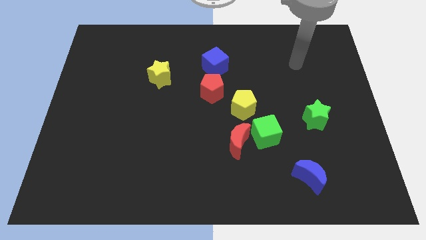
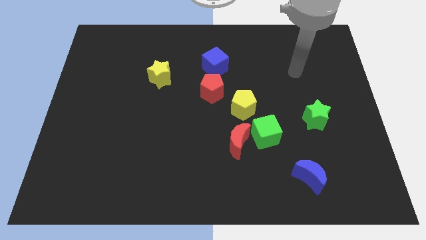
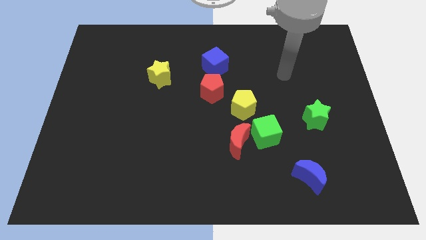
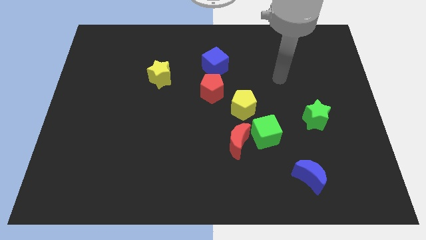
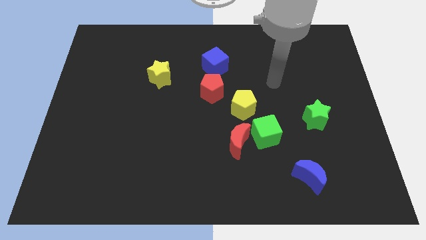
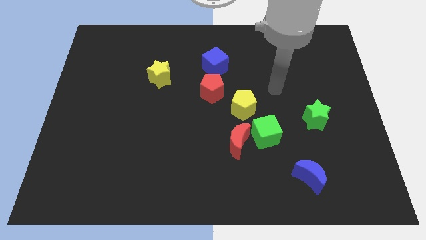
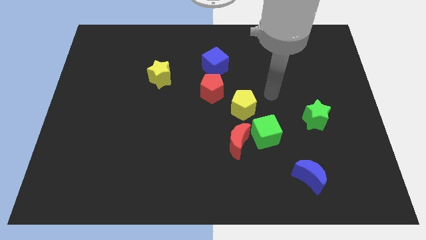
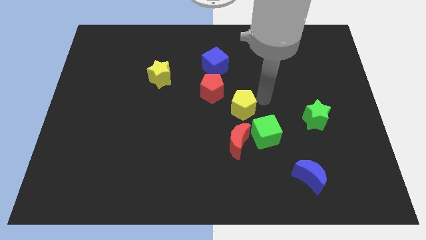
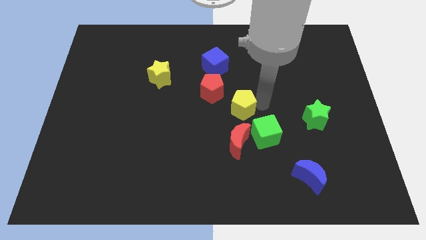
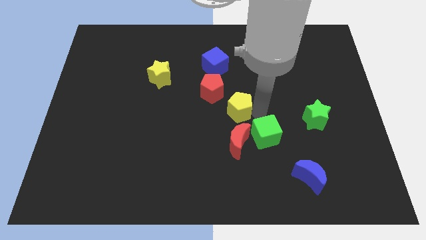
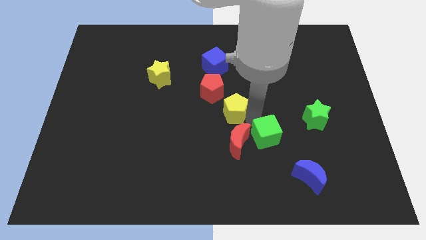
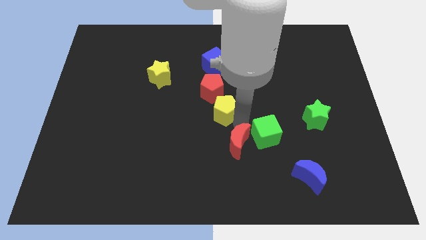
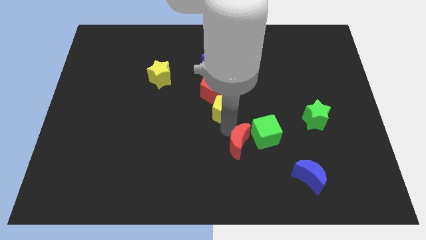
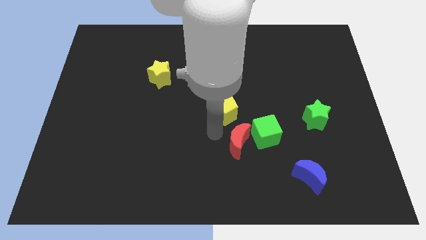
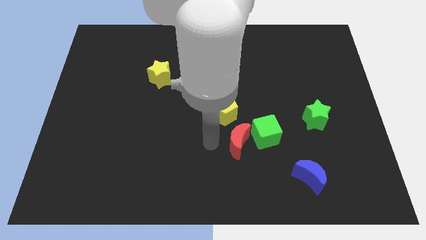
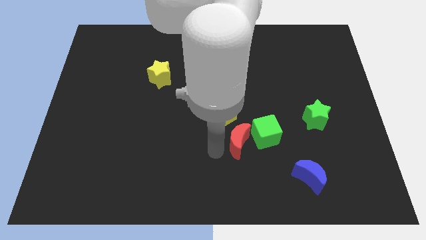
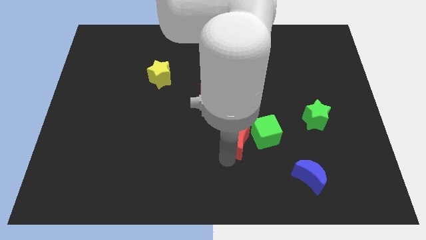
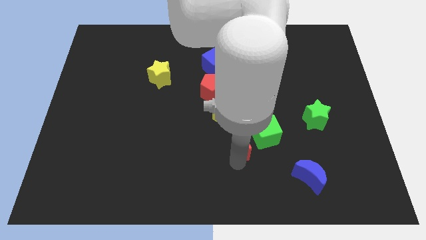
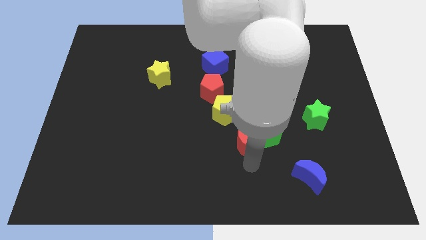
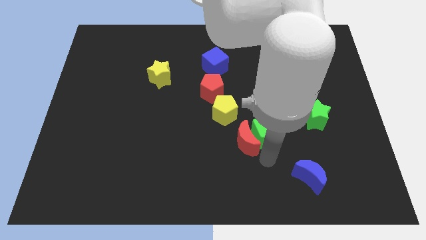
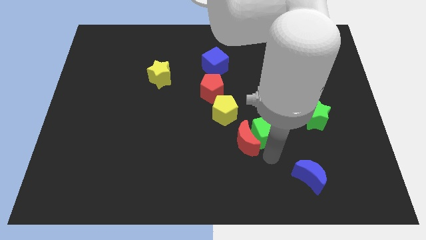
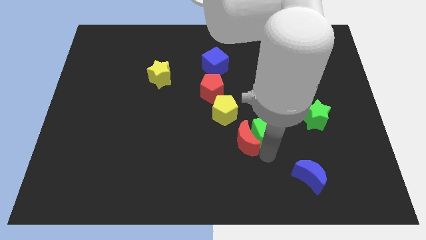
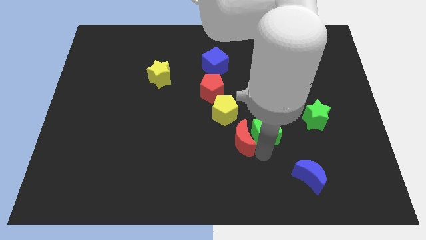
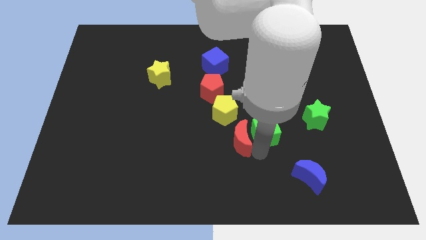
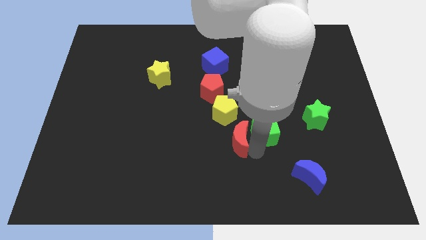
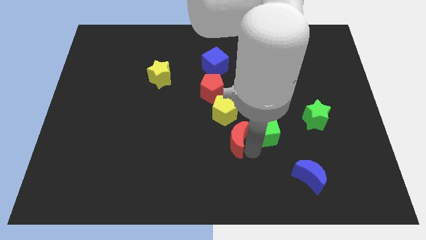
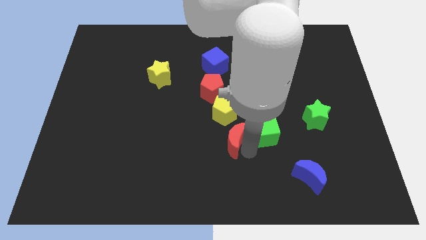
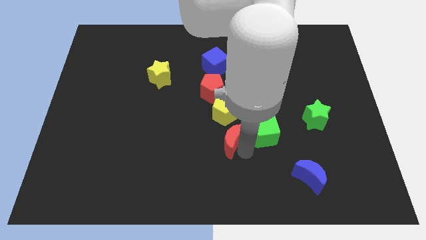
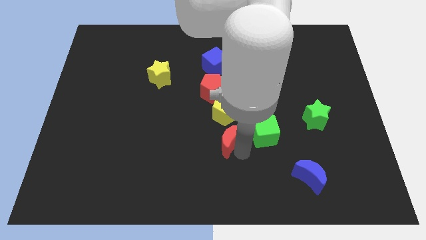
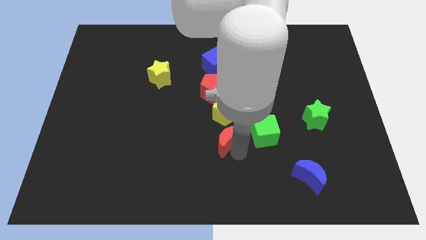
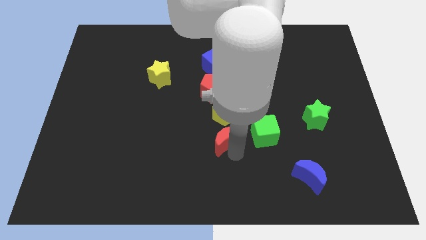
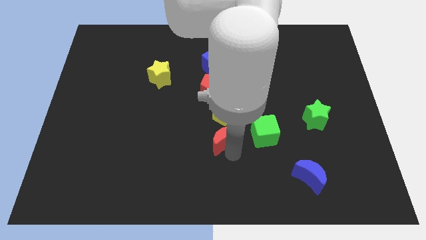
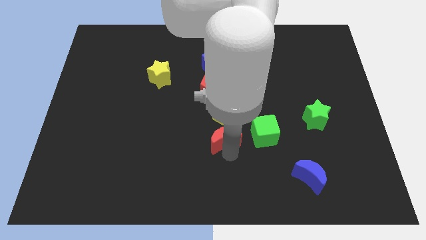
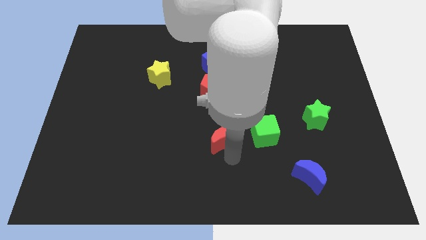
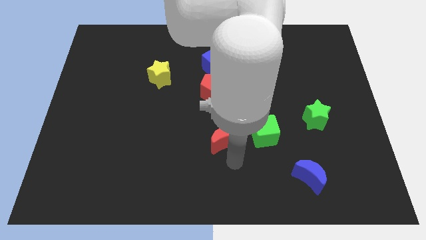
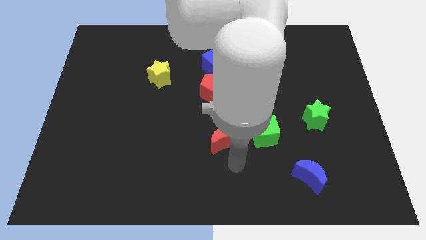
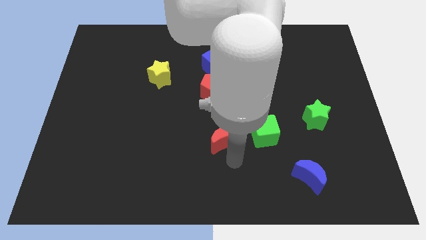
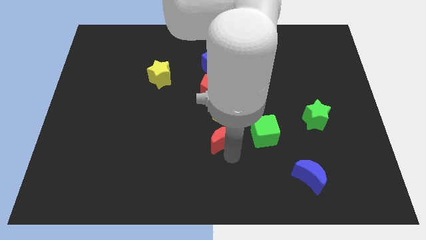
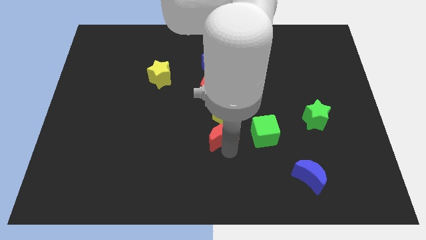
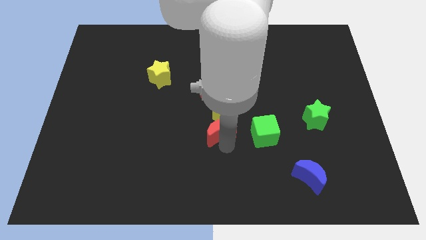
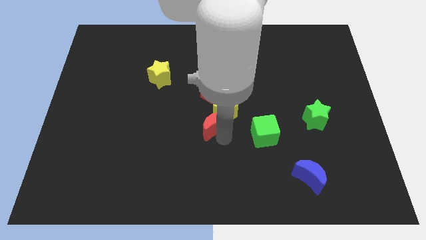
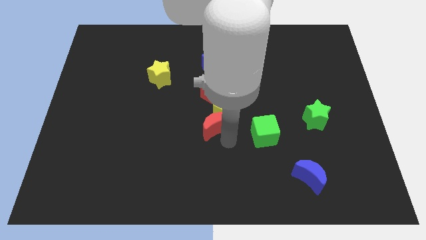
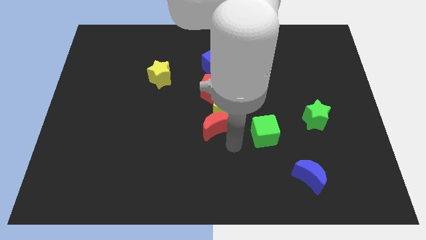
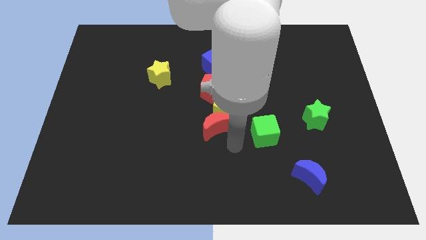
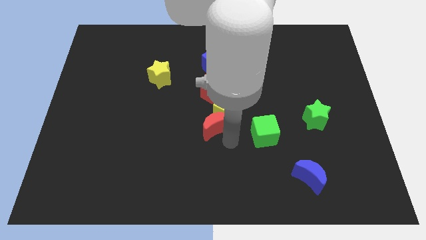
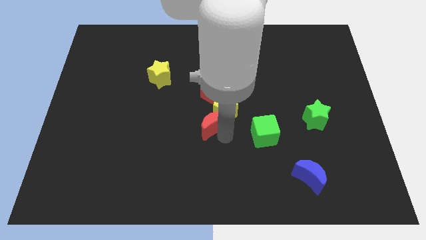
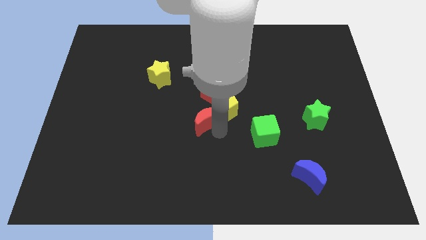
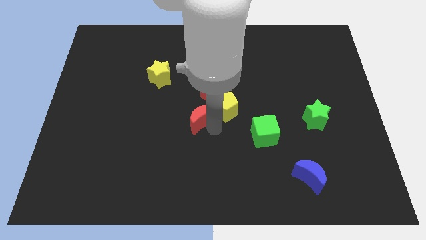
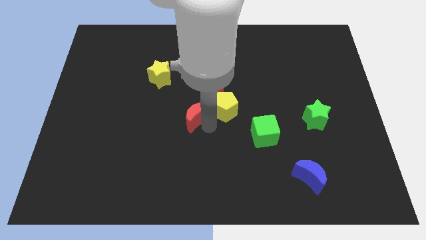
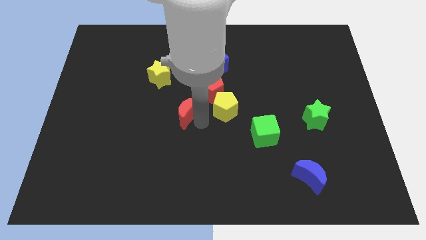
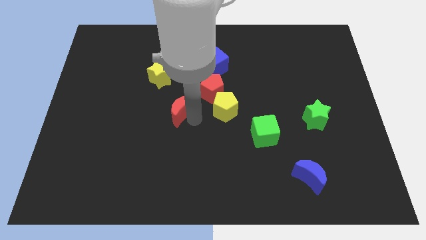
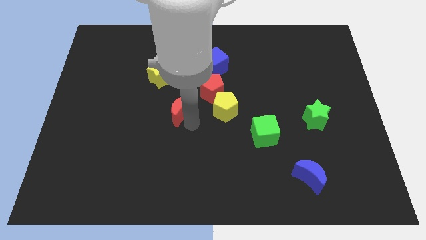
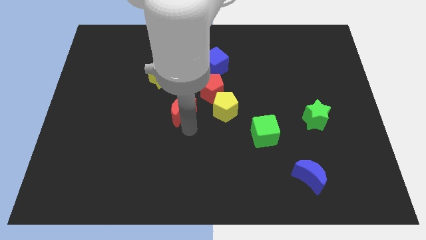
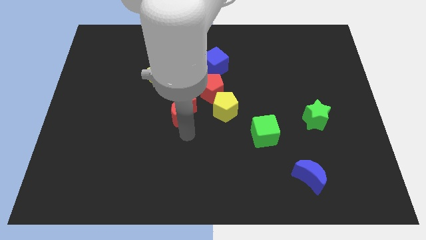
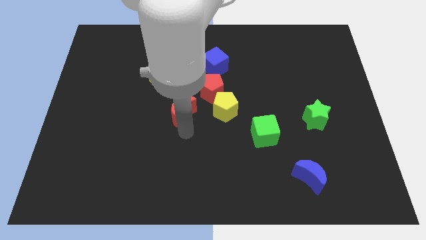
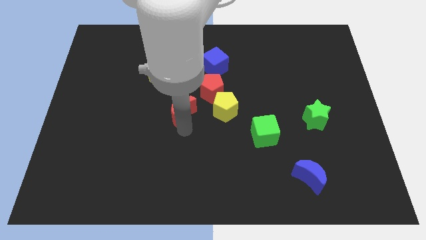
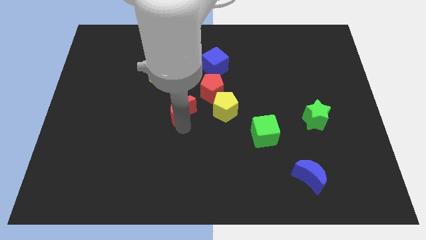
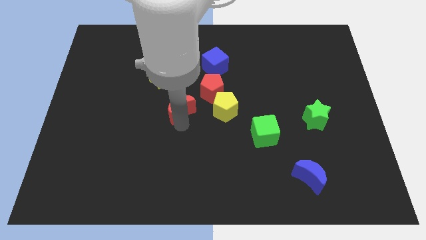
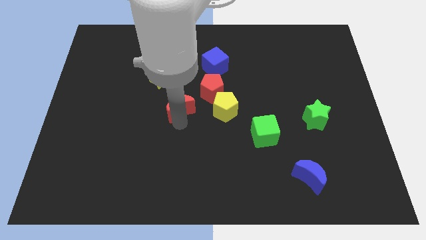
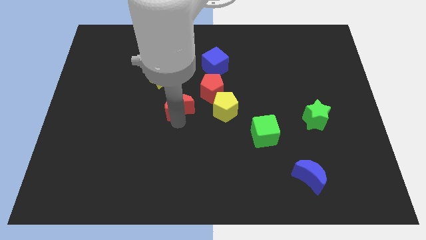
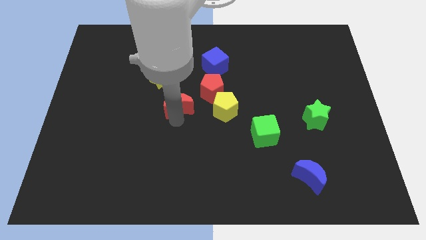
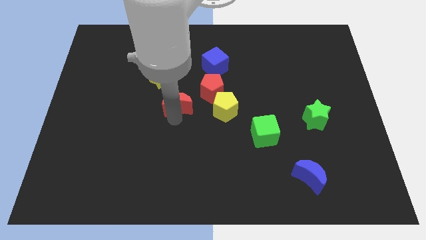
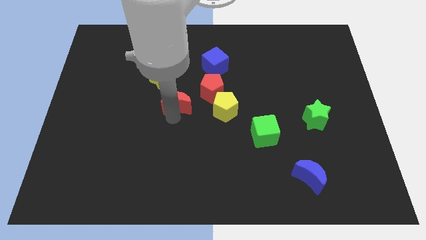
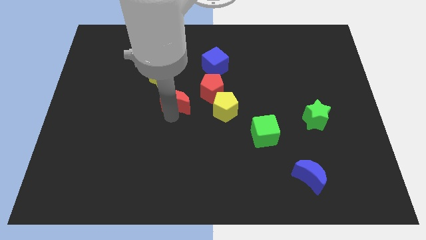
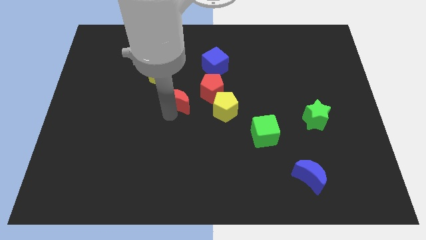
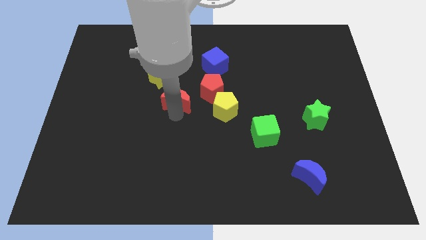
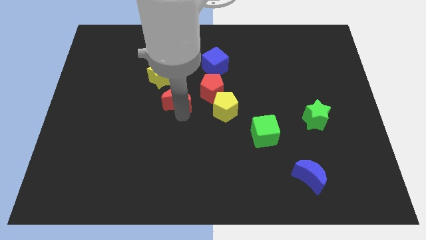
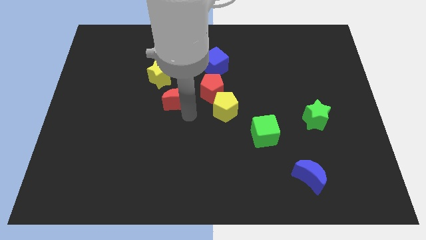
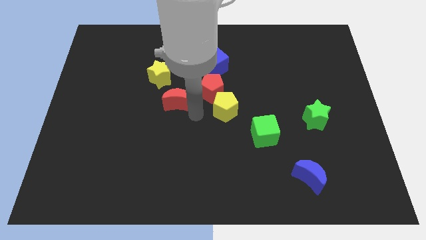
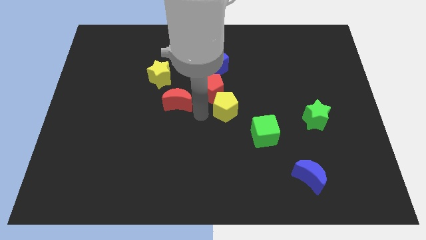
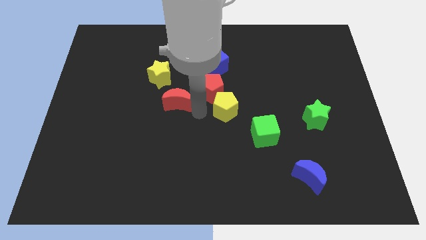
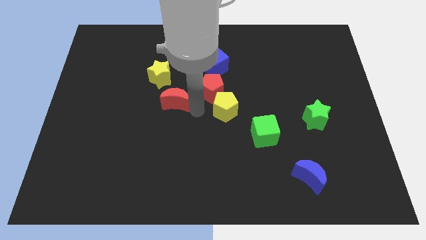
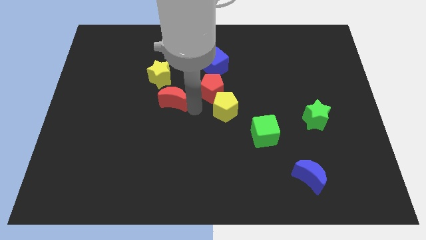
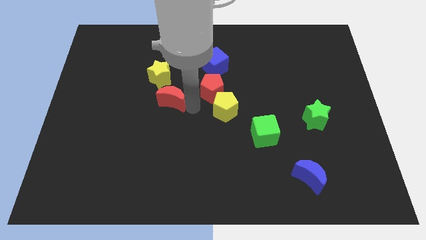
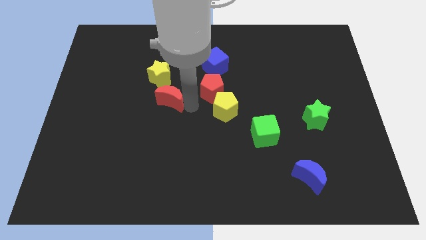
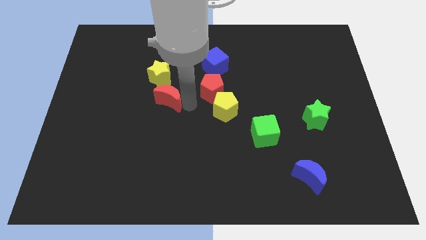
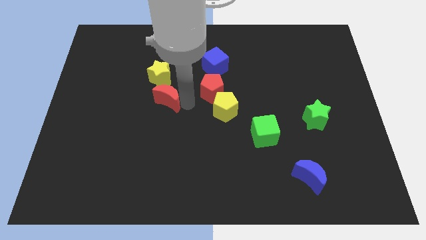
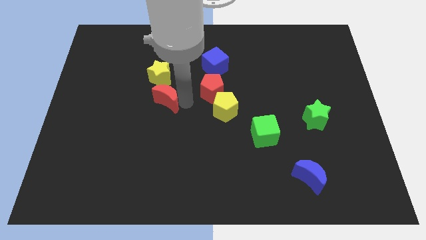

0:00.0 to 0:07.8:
move the red moon upwards and left

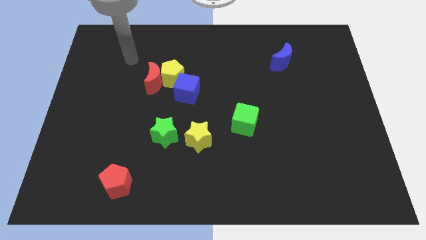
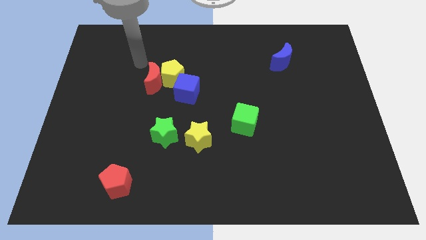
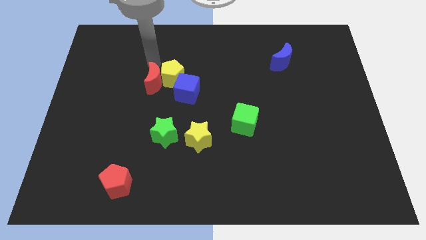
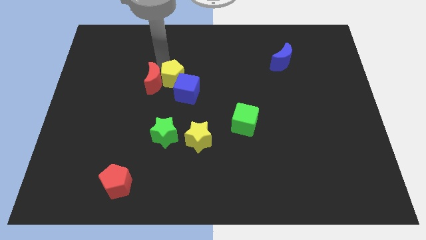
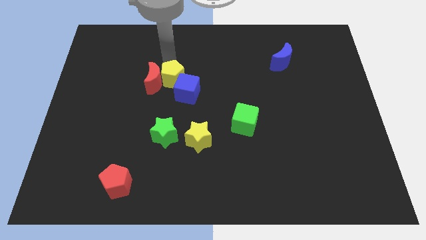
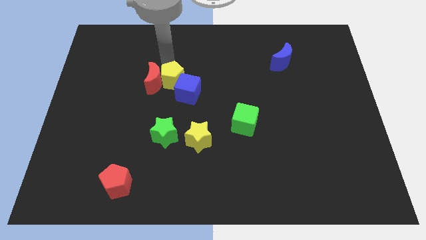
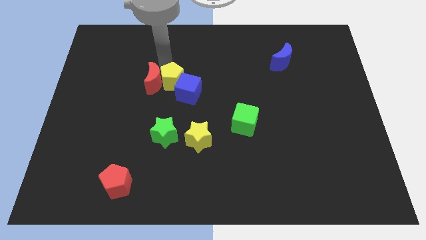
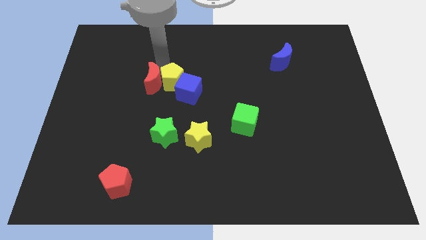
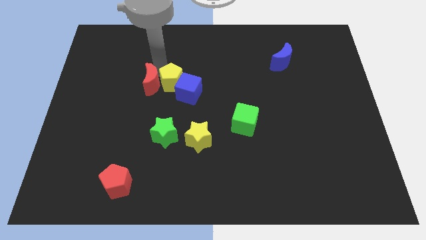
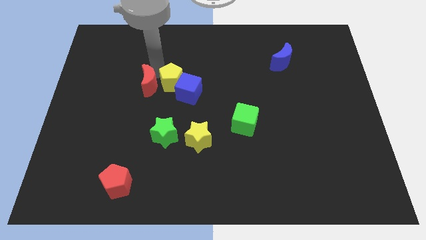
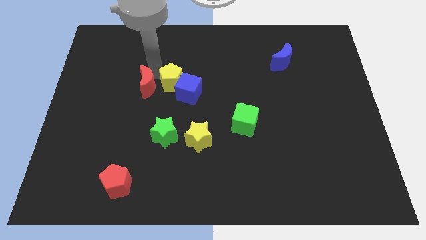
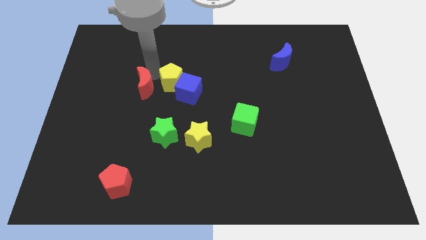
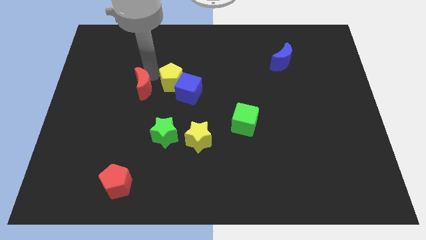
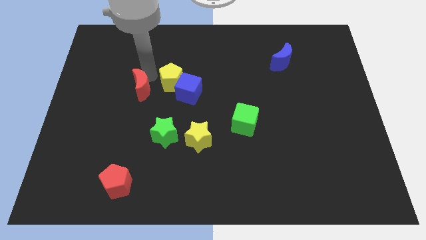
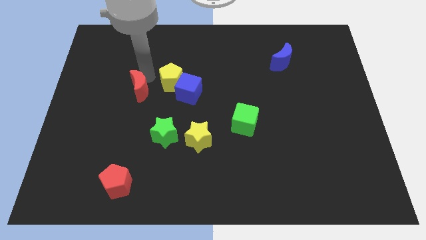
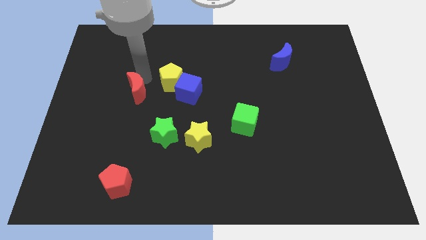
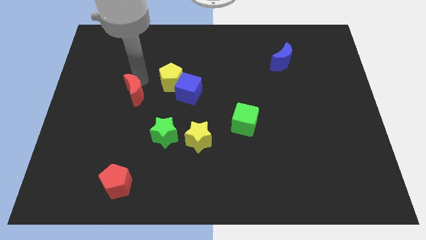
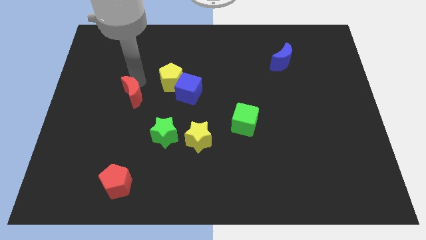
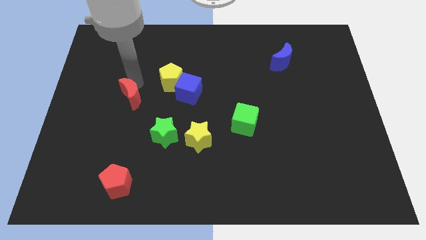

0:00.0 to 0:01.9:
slide the red moon a bit diagonally down and to the left
